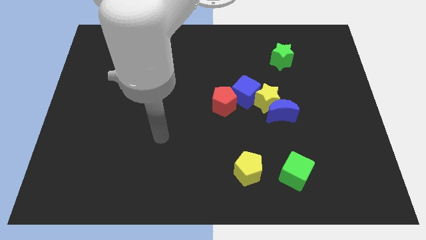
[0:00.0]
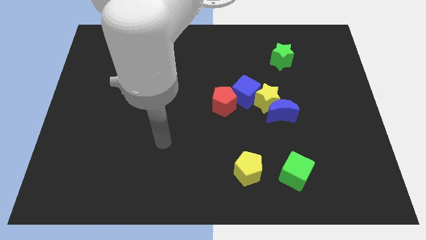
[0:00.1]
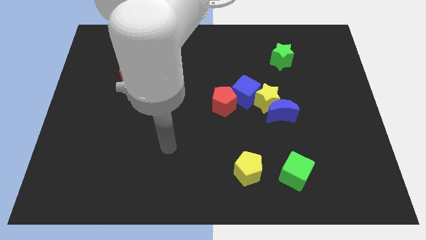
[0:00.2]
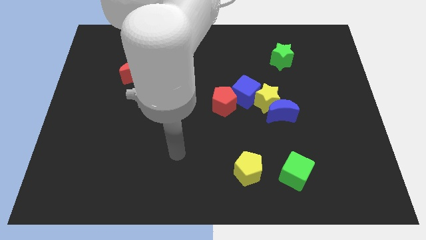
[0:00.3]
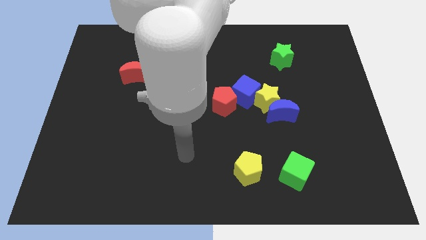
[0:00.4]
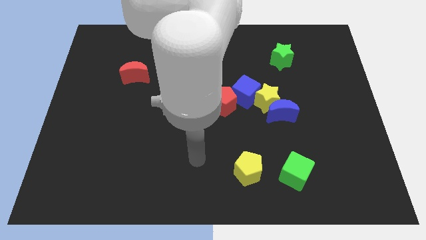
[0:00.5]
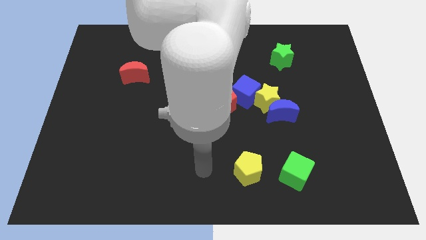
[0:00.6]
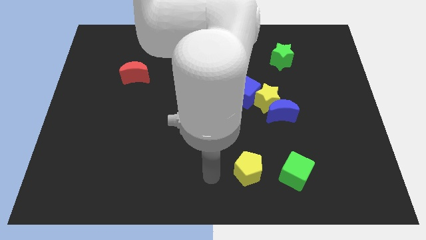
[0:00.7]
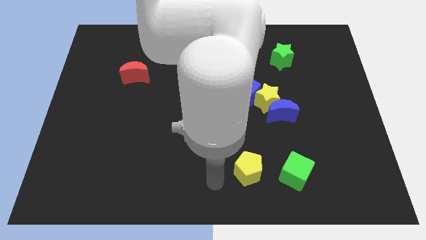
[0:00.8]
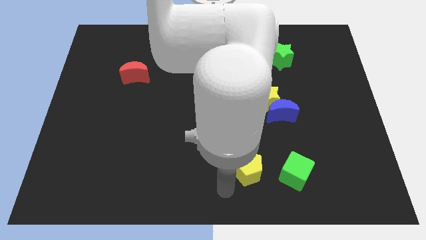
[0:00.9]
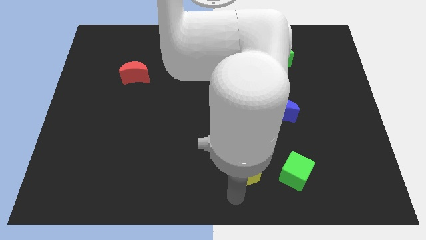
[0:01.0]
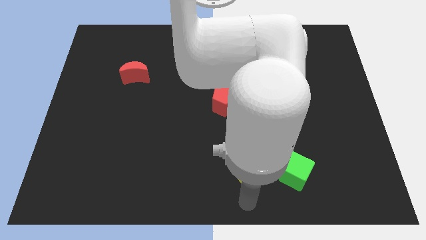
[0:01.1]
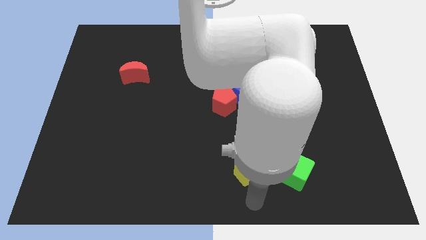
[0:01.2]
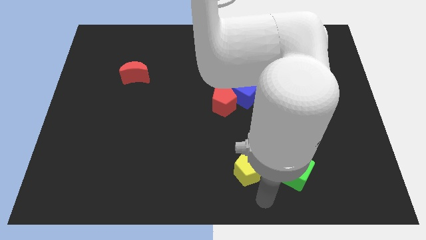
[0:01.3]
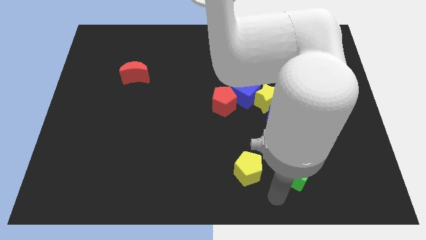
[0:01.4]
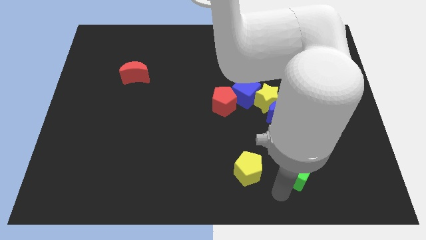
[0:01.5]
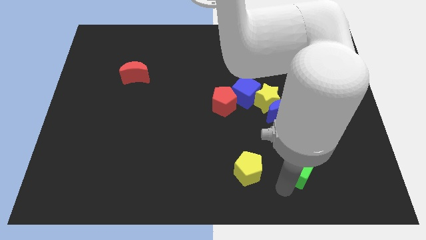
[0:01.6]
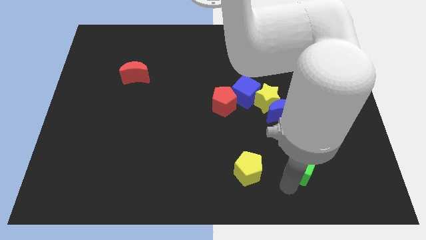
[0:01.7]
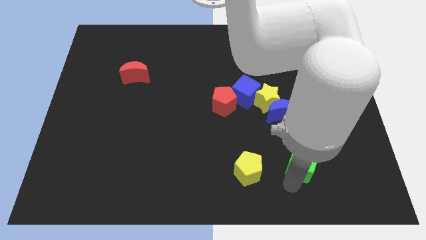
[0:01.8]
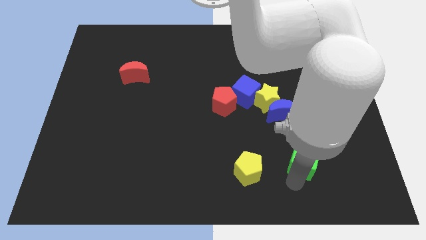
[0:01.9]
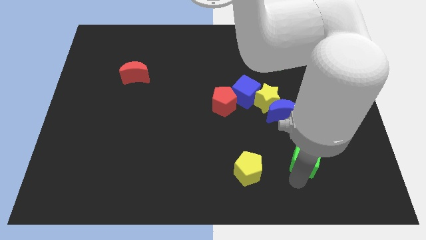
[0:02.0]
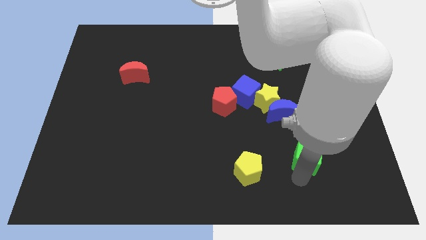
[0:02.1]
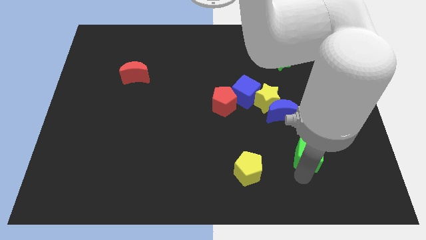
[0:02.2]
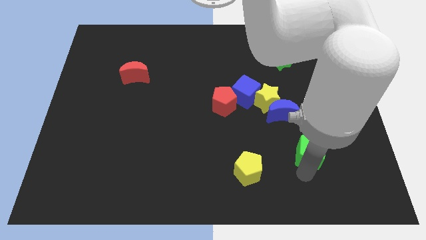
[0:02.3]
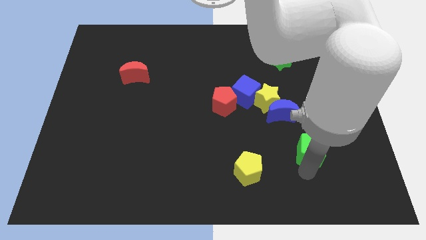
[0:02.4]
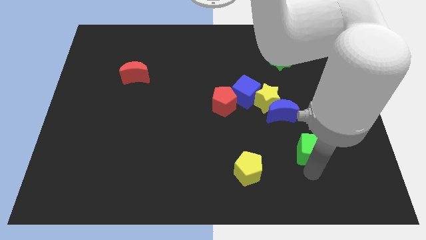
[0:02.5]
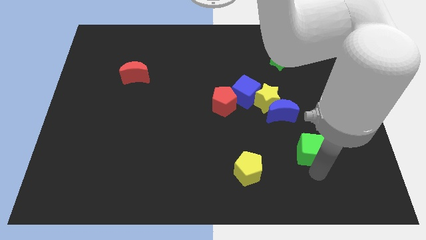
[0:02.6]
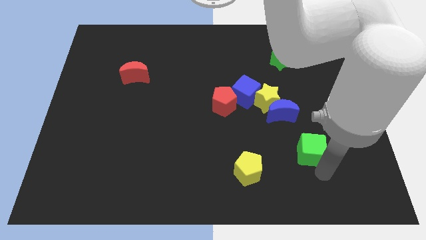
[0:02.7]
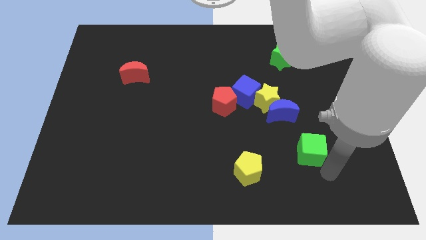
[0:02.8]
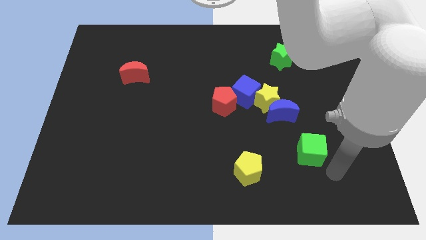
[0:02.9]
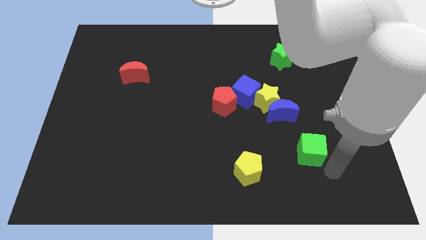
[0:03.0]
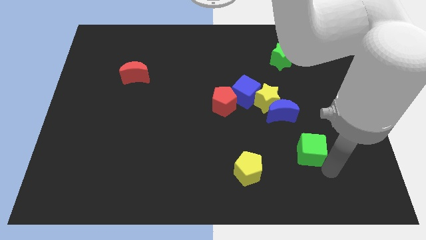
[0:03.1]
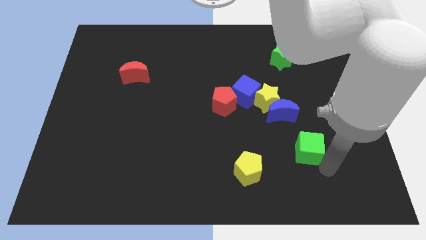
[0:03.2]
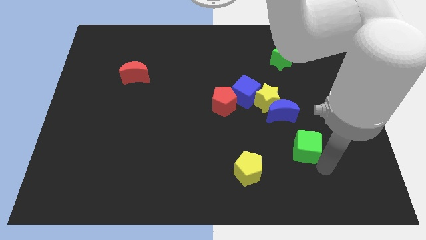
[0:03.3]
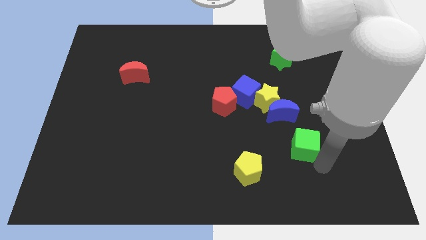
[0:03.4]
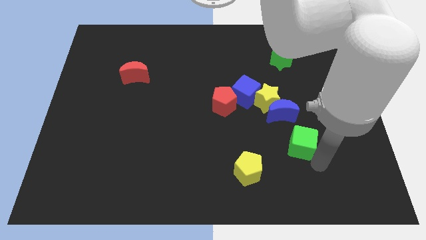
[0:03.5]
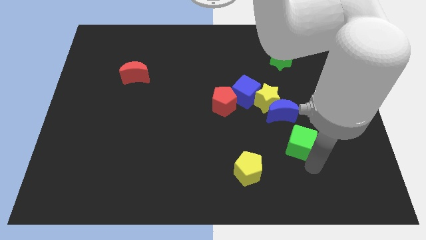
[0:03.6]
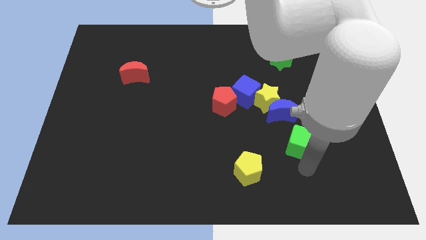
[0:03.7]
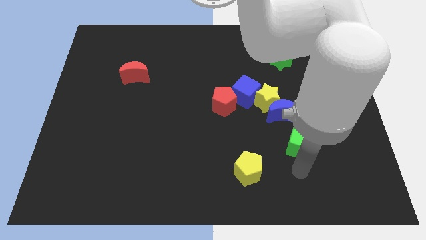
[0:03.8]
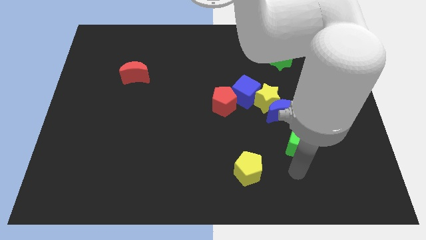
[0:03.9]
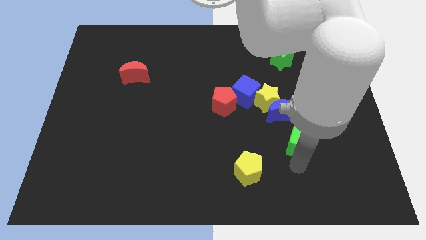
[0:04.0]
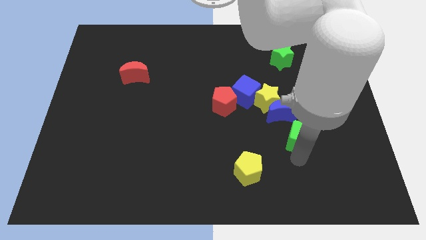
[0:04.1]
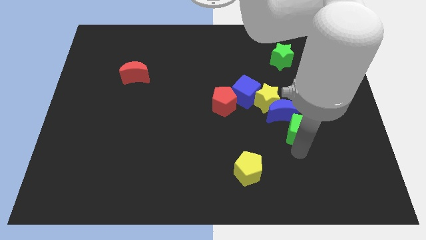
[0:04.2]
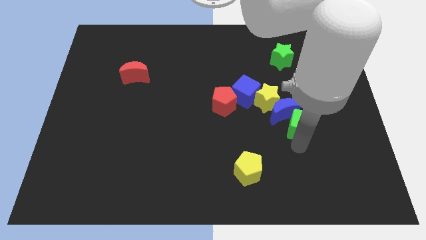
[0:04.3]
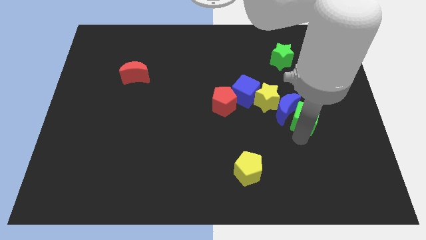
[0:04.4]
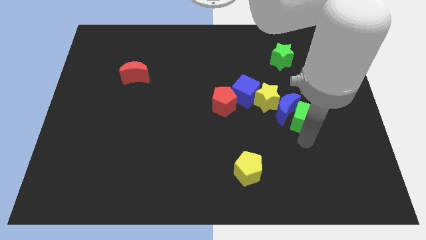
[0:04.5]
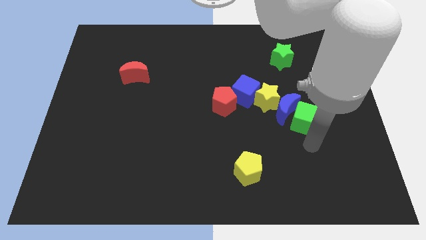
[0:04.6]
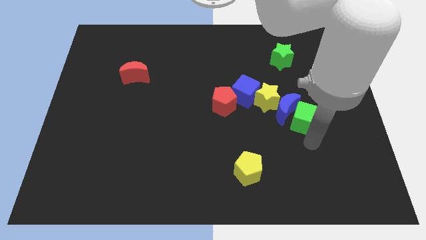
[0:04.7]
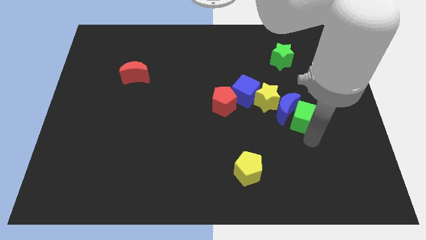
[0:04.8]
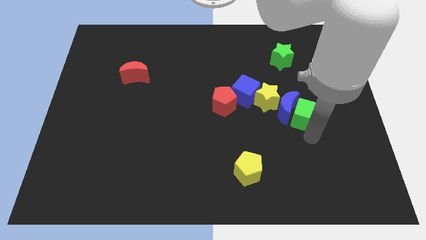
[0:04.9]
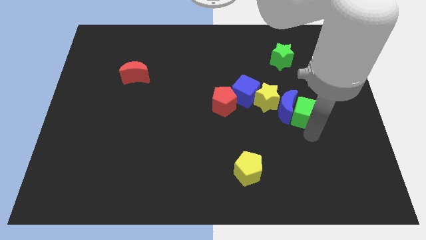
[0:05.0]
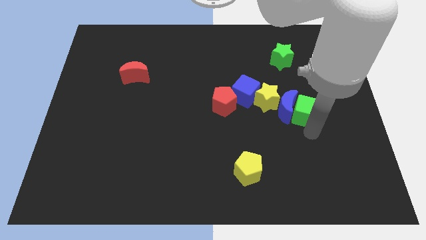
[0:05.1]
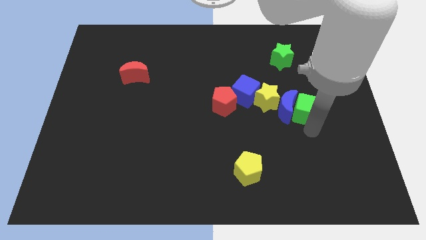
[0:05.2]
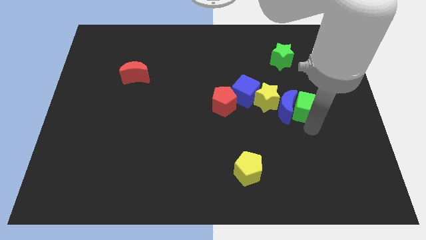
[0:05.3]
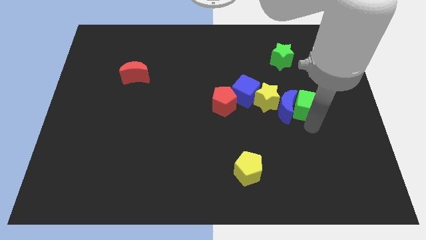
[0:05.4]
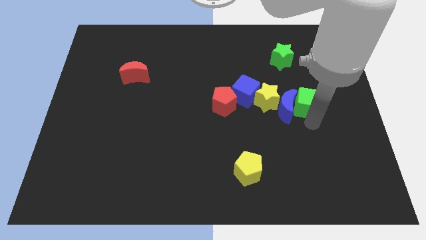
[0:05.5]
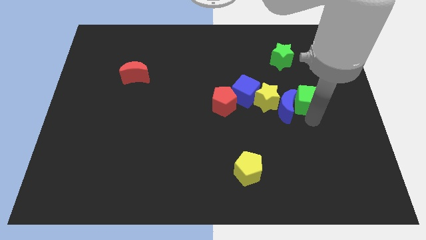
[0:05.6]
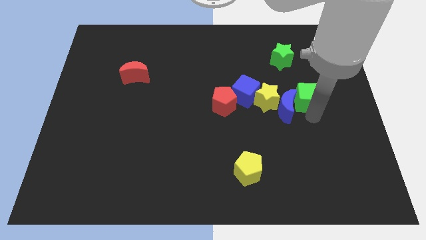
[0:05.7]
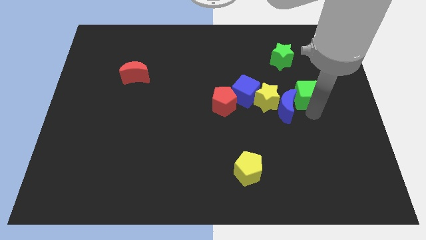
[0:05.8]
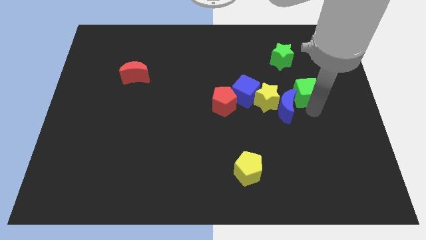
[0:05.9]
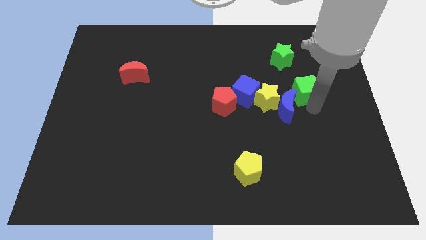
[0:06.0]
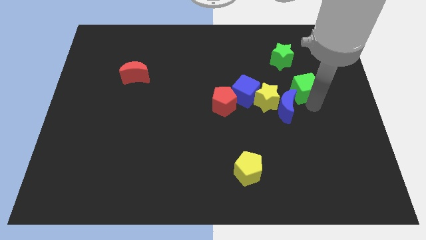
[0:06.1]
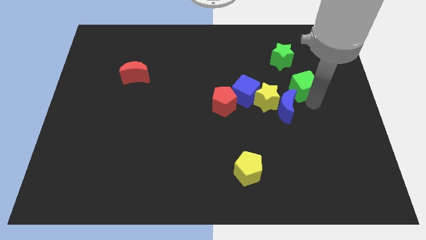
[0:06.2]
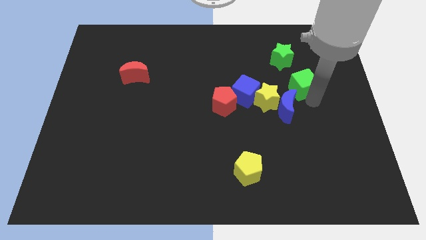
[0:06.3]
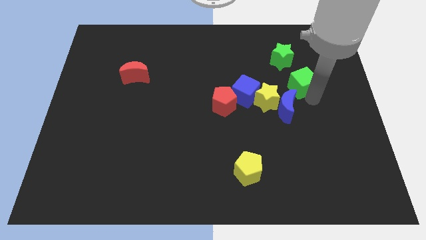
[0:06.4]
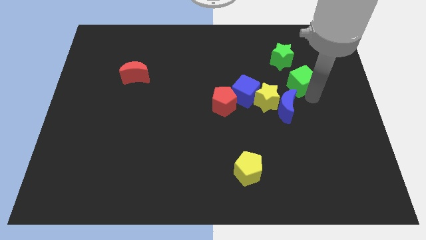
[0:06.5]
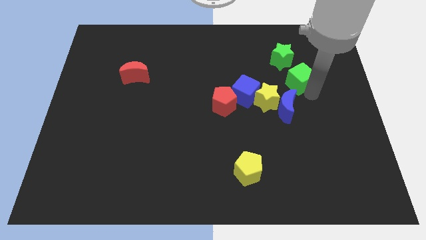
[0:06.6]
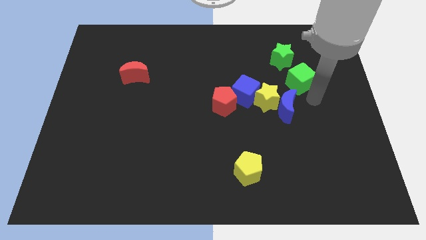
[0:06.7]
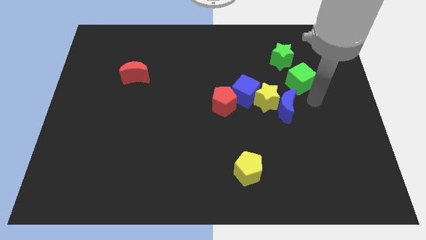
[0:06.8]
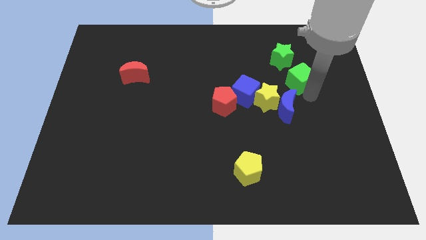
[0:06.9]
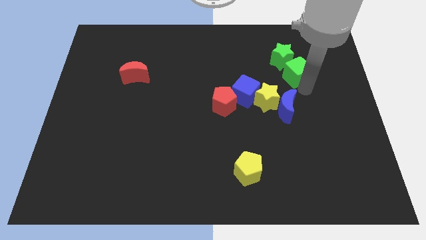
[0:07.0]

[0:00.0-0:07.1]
move the green cube close to the green star

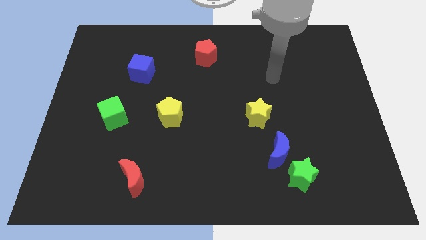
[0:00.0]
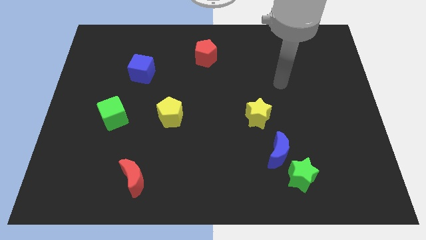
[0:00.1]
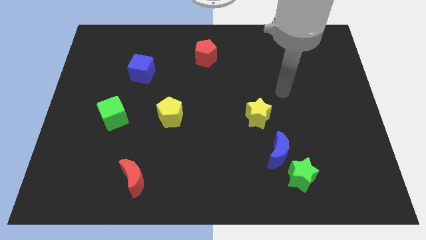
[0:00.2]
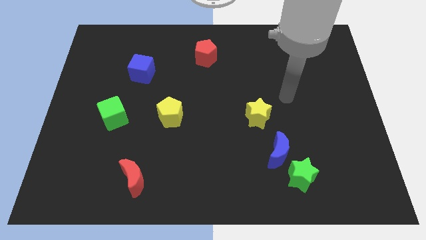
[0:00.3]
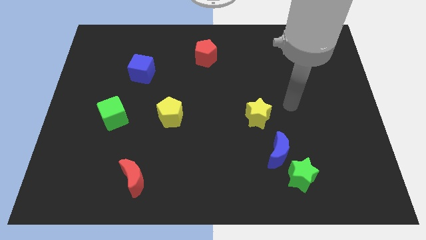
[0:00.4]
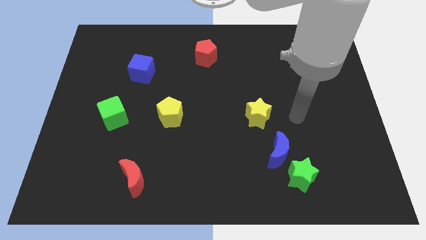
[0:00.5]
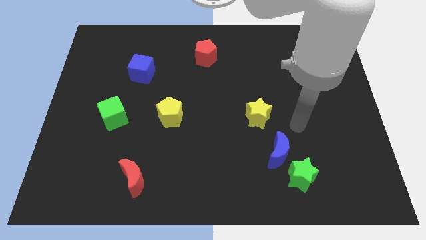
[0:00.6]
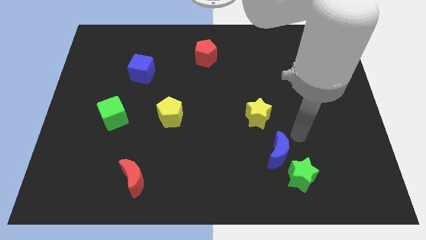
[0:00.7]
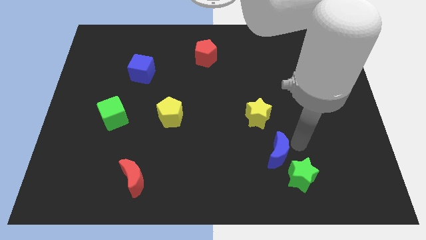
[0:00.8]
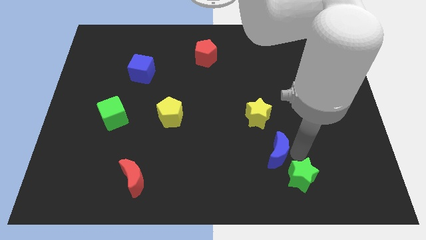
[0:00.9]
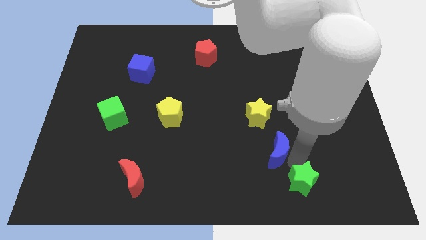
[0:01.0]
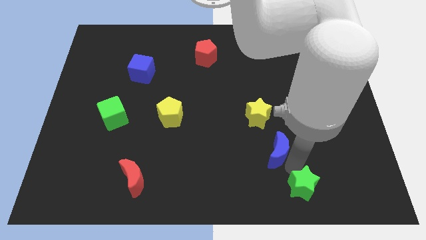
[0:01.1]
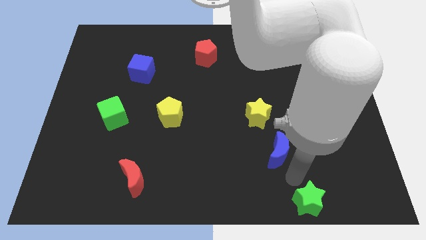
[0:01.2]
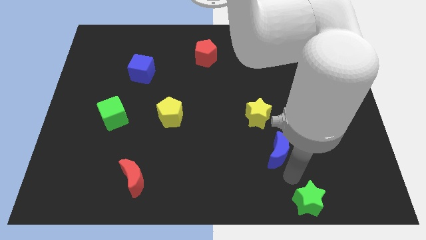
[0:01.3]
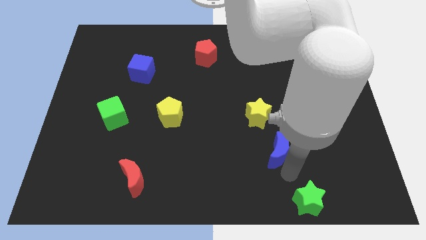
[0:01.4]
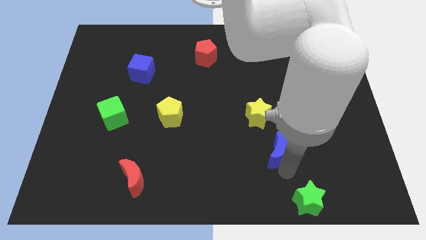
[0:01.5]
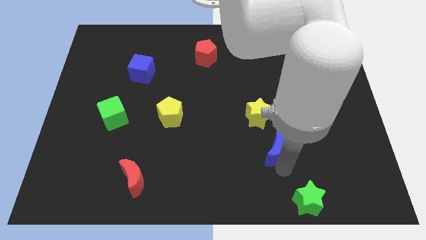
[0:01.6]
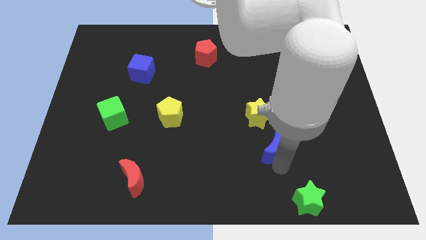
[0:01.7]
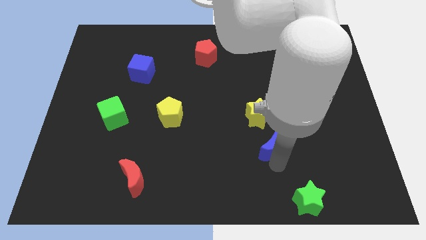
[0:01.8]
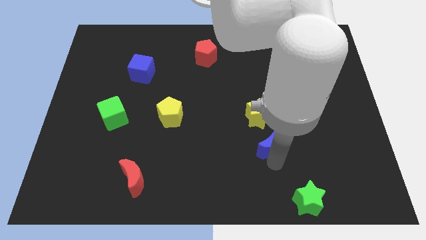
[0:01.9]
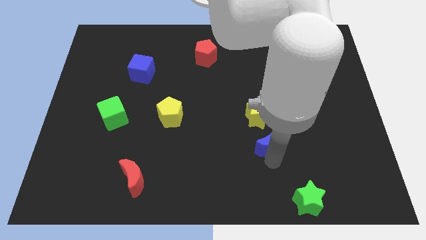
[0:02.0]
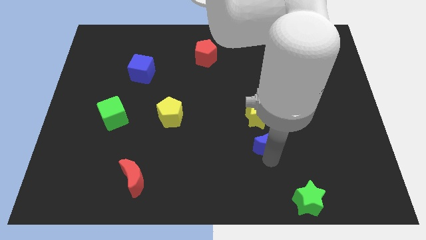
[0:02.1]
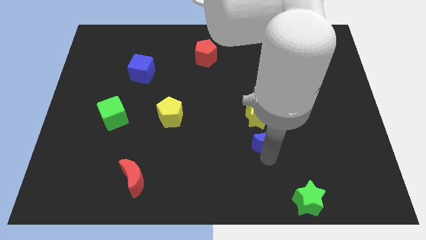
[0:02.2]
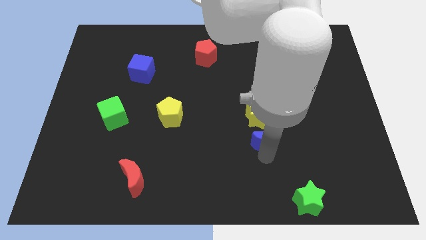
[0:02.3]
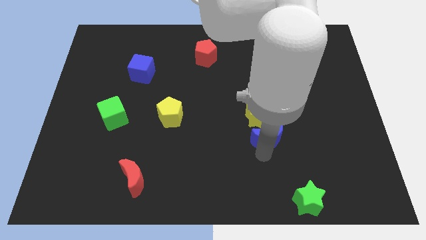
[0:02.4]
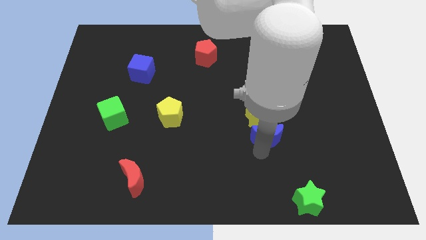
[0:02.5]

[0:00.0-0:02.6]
move the blue moon close to the yellow star
